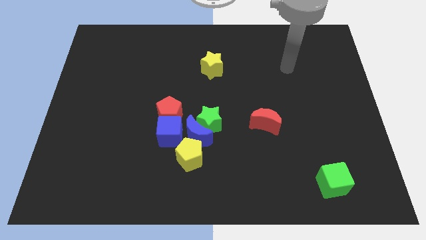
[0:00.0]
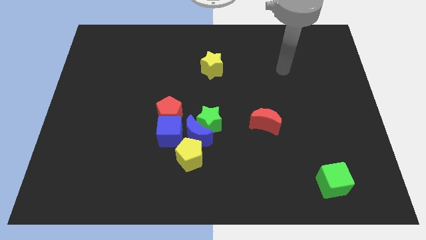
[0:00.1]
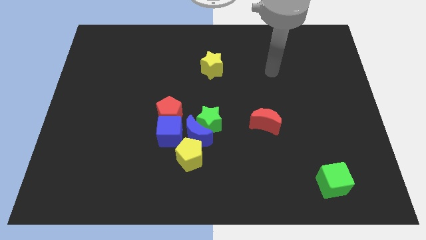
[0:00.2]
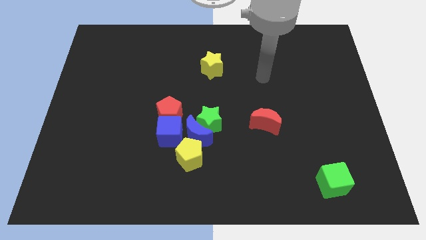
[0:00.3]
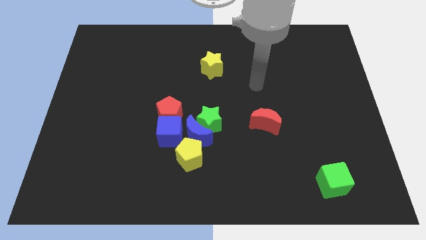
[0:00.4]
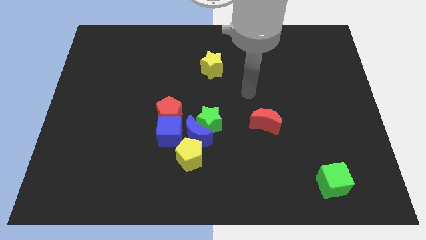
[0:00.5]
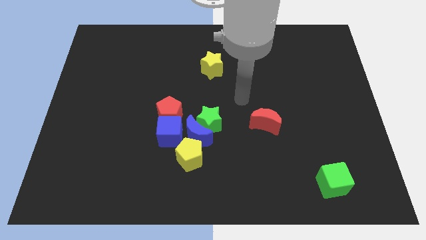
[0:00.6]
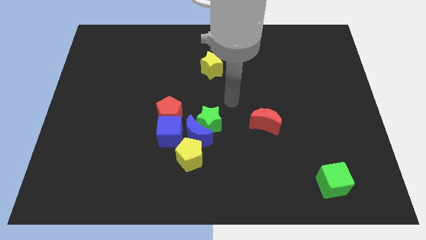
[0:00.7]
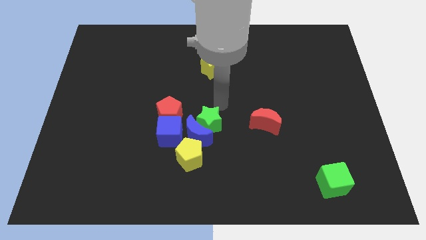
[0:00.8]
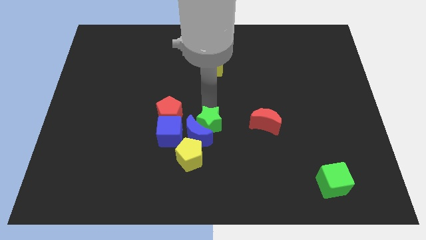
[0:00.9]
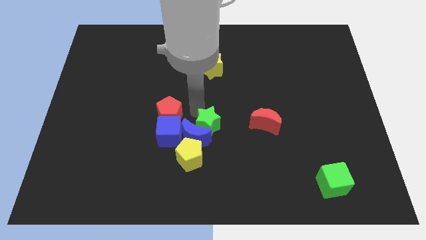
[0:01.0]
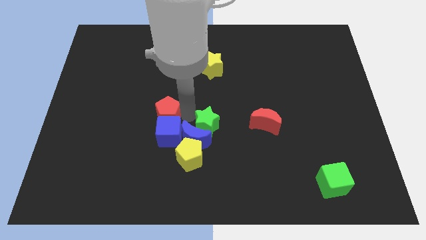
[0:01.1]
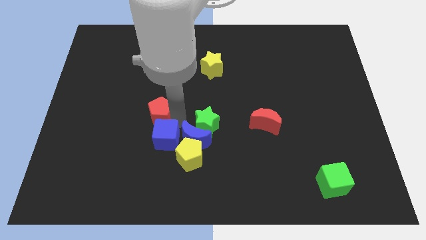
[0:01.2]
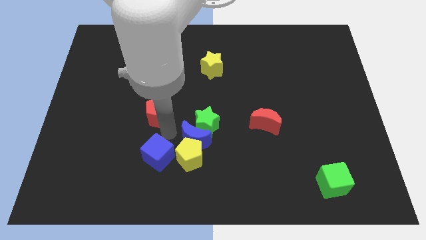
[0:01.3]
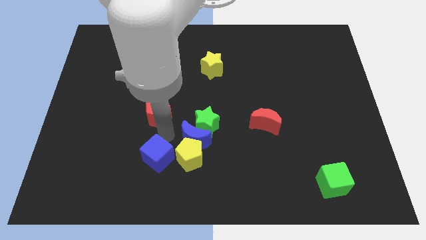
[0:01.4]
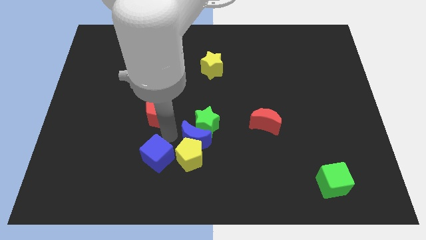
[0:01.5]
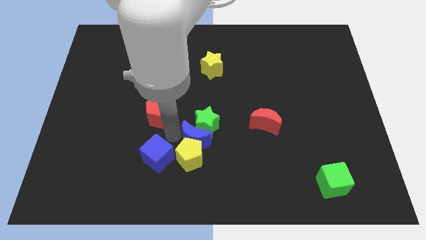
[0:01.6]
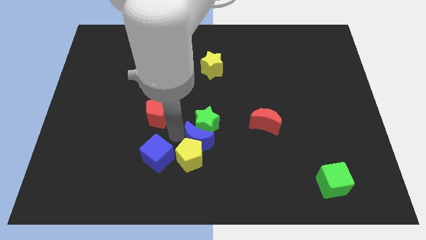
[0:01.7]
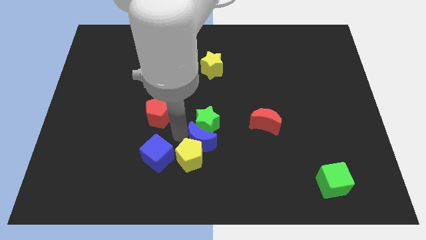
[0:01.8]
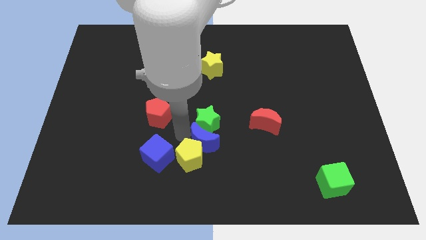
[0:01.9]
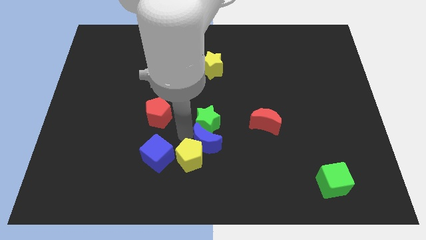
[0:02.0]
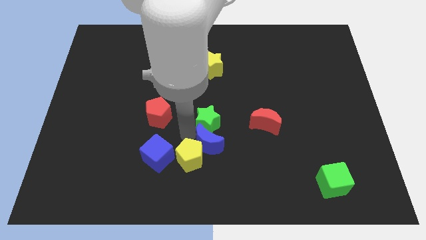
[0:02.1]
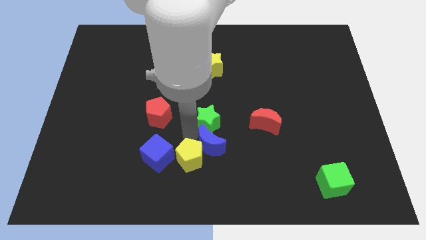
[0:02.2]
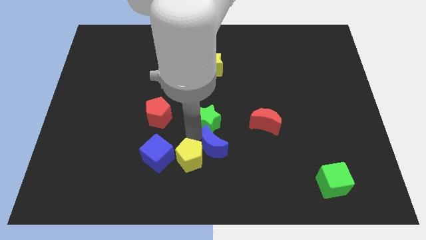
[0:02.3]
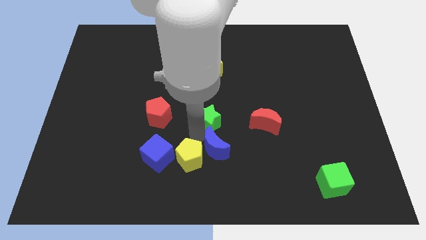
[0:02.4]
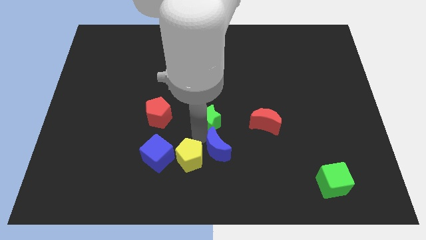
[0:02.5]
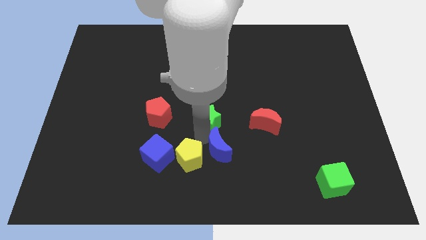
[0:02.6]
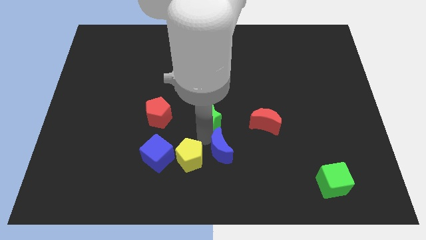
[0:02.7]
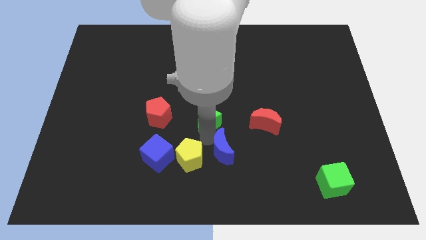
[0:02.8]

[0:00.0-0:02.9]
pull the blue moon apart from the clump

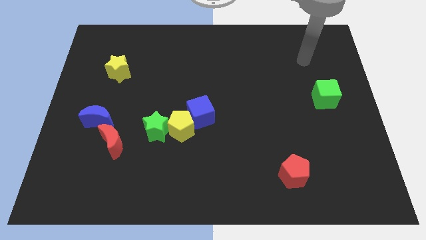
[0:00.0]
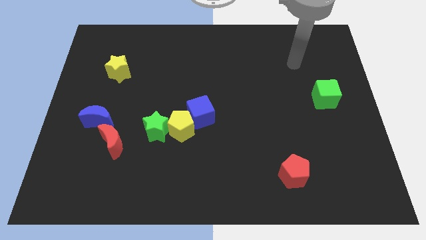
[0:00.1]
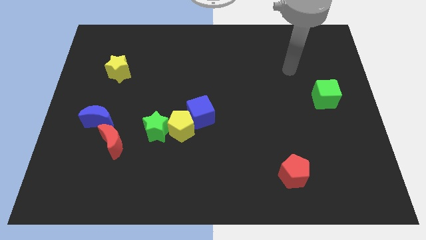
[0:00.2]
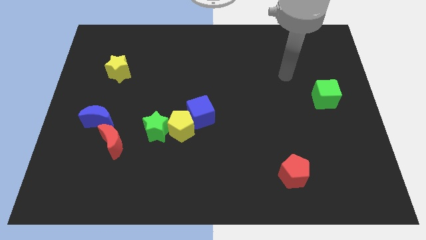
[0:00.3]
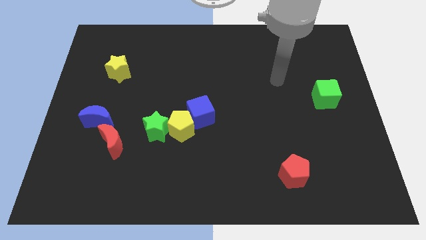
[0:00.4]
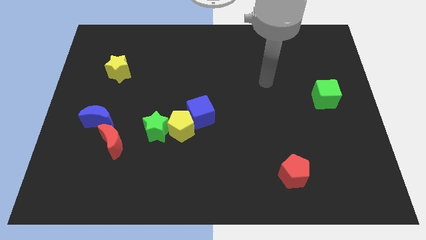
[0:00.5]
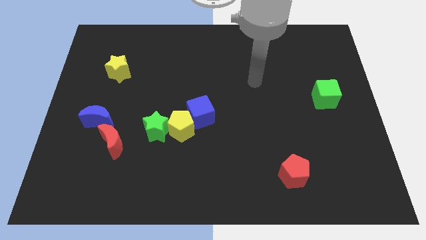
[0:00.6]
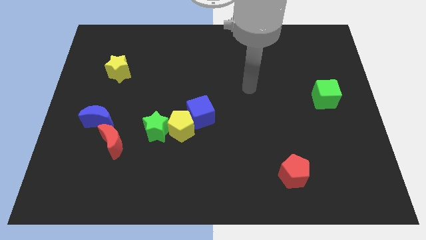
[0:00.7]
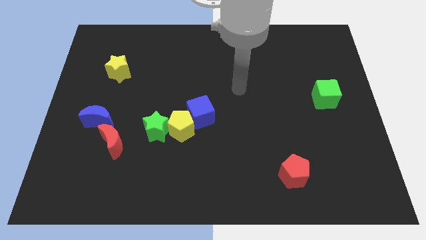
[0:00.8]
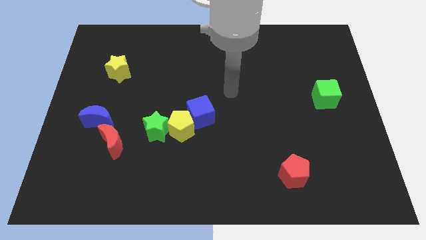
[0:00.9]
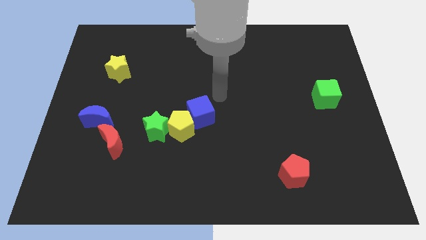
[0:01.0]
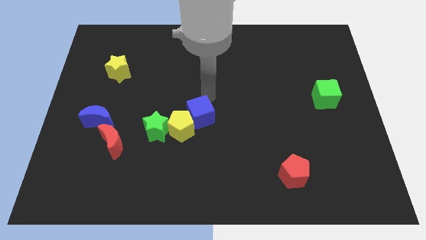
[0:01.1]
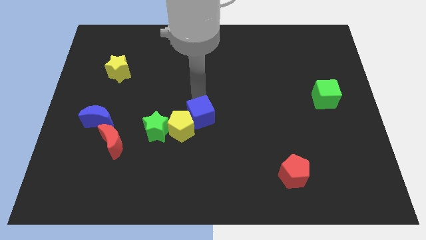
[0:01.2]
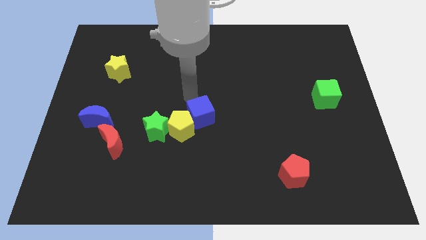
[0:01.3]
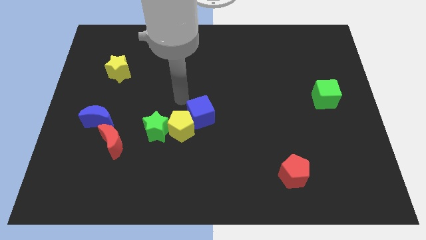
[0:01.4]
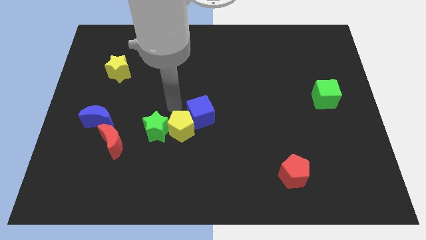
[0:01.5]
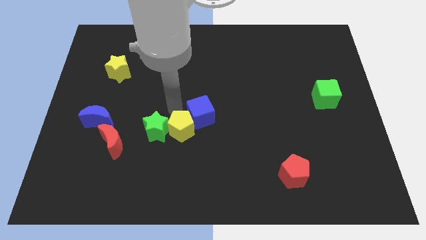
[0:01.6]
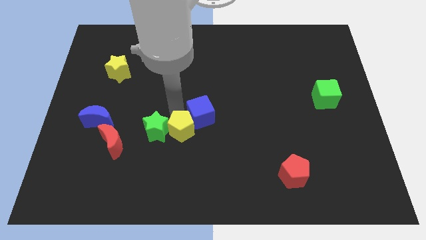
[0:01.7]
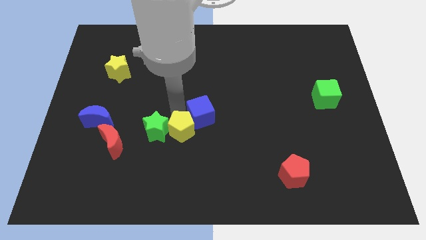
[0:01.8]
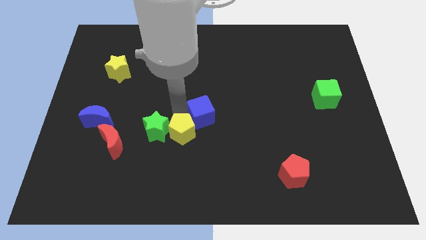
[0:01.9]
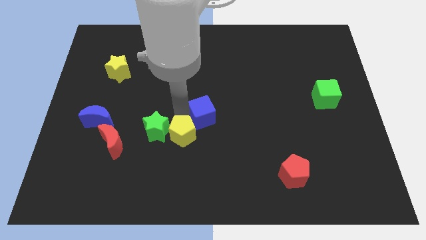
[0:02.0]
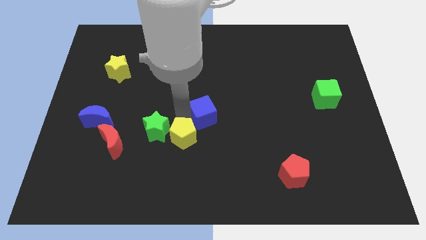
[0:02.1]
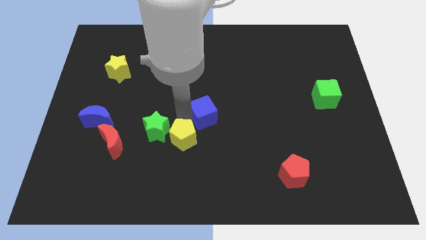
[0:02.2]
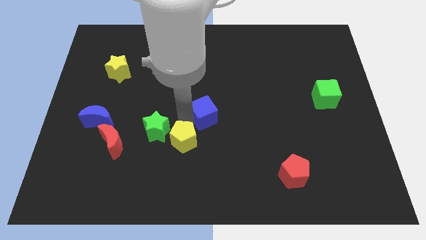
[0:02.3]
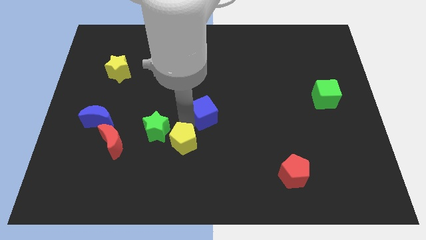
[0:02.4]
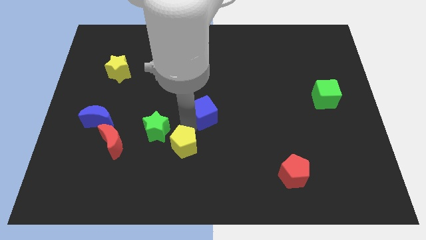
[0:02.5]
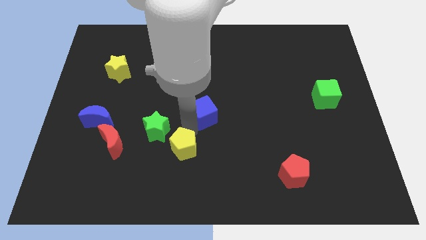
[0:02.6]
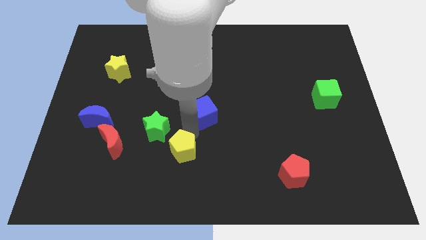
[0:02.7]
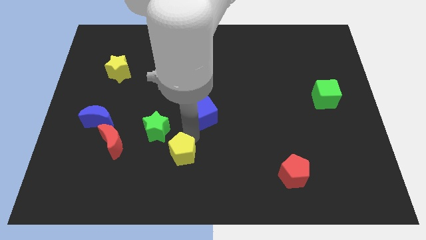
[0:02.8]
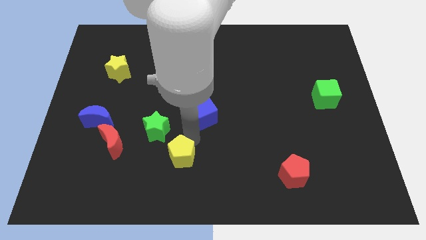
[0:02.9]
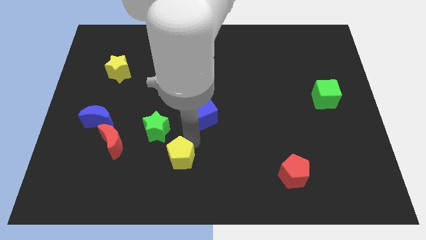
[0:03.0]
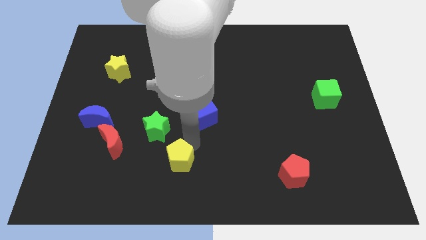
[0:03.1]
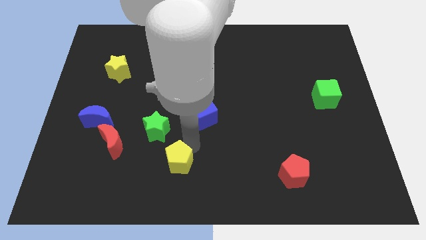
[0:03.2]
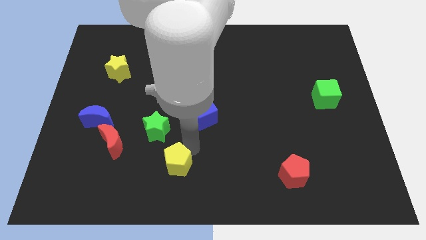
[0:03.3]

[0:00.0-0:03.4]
move the yellow pentagon away from the green star and blue cube

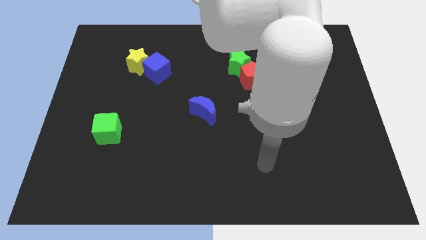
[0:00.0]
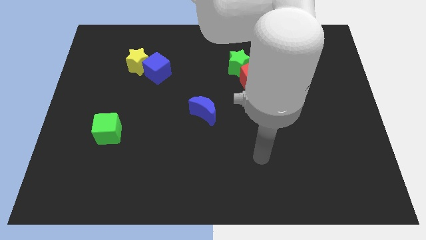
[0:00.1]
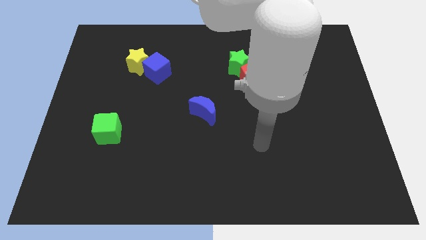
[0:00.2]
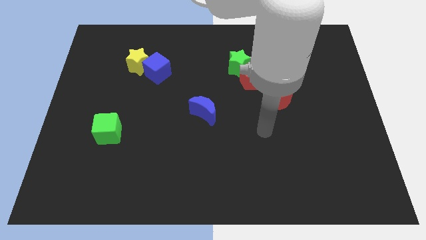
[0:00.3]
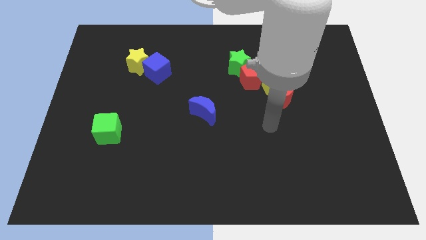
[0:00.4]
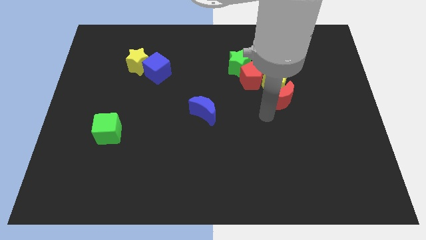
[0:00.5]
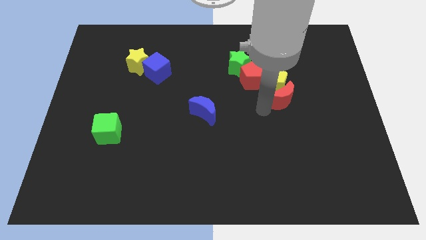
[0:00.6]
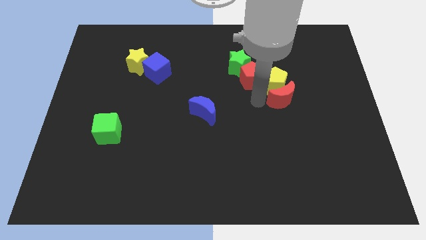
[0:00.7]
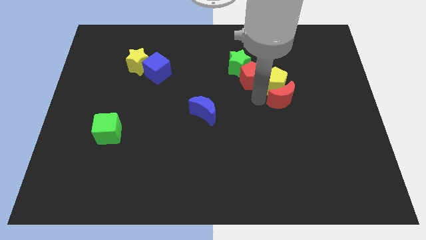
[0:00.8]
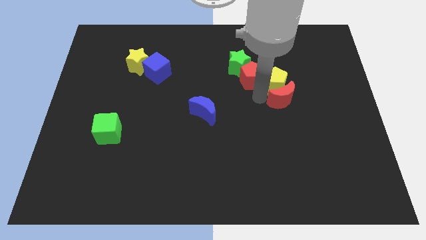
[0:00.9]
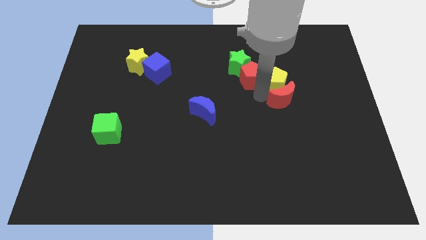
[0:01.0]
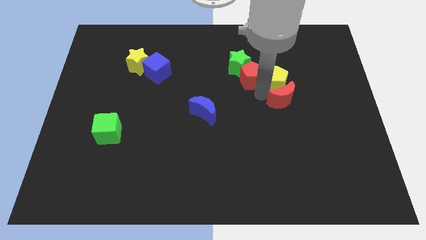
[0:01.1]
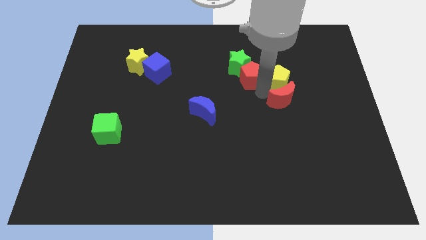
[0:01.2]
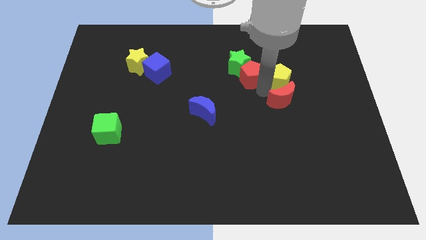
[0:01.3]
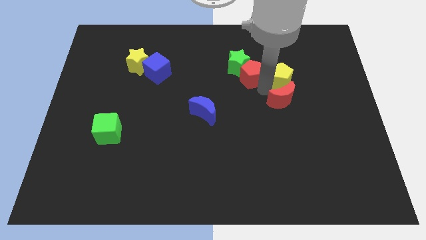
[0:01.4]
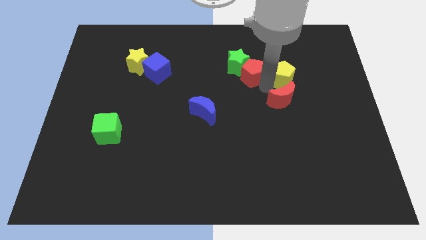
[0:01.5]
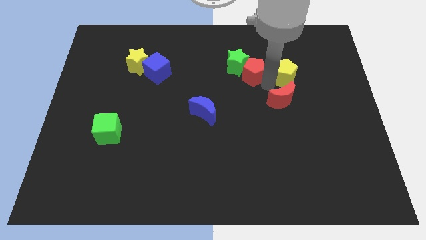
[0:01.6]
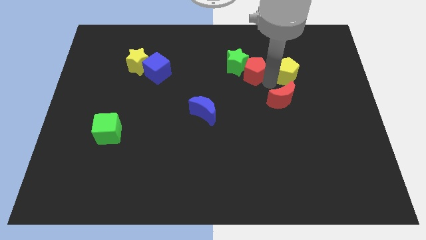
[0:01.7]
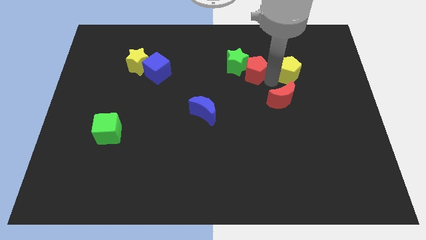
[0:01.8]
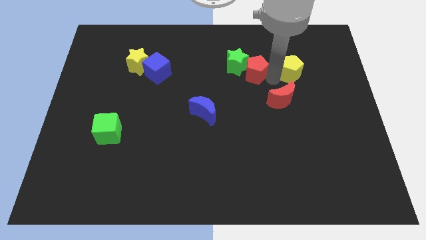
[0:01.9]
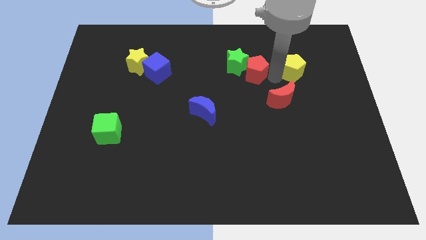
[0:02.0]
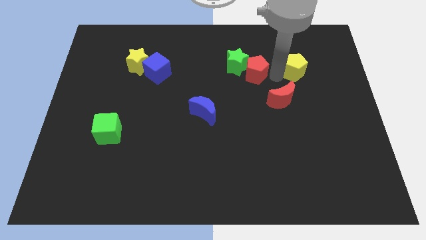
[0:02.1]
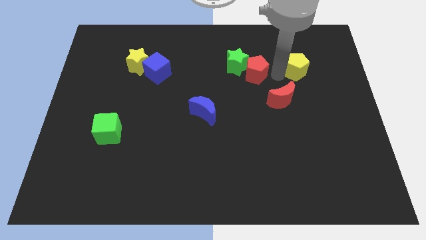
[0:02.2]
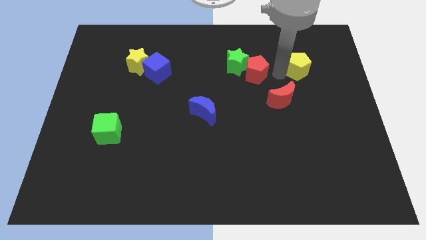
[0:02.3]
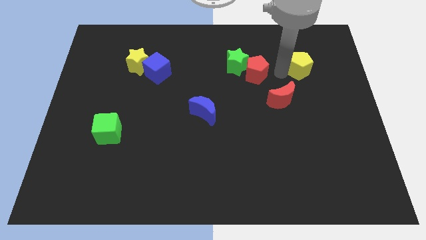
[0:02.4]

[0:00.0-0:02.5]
separate the yellow pentagon from the red moon and red pentagon

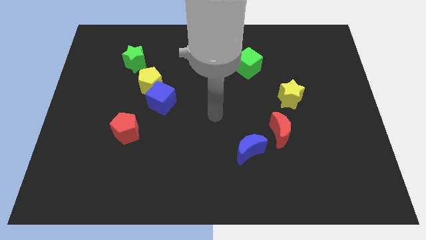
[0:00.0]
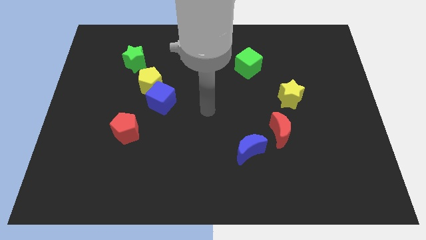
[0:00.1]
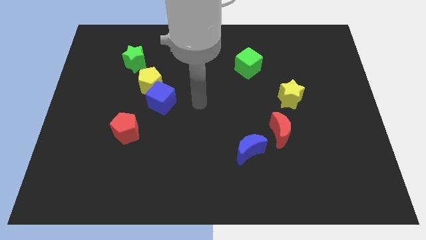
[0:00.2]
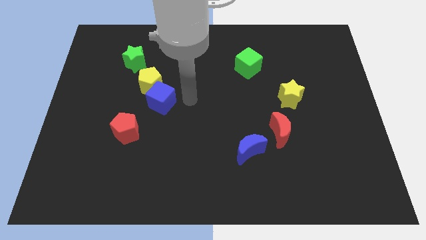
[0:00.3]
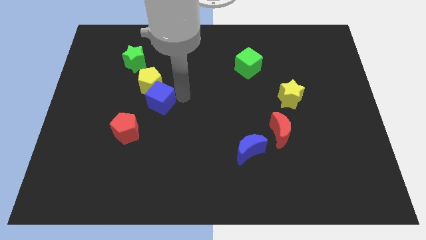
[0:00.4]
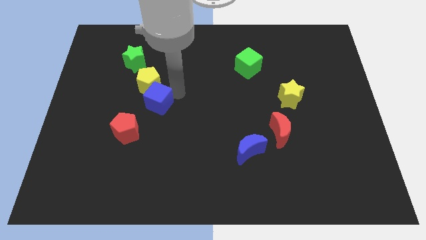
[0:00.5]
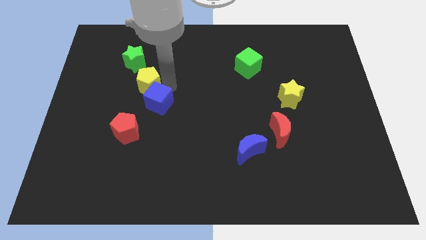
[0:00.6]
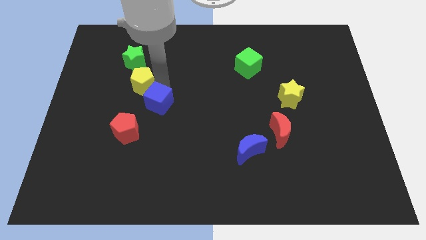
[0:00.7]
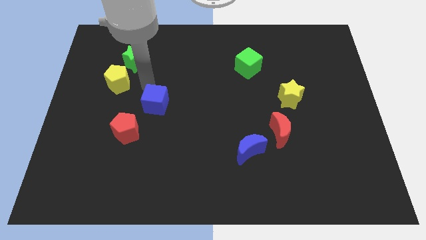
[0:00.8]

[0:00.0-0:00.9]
move the blue cube away from the yellow pentagon
